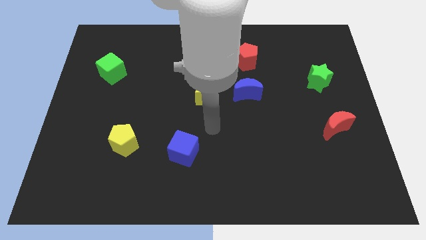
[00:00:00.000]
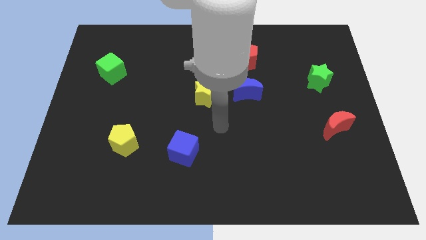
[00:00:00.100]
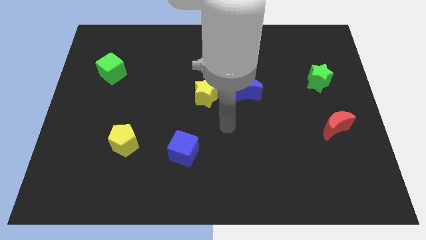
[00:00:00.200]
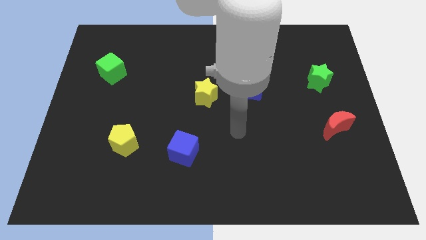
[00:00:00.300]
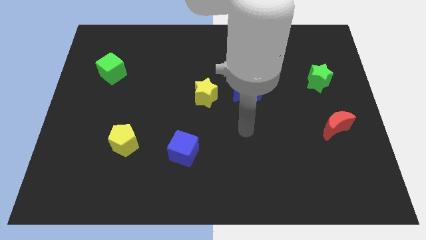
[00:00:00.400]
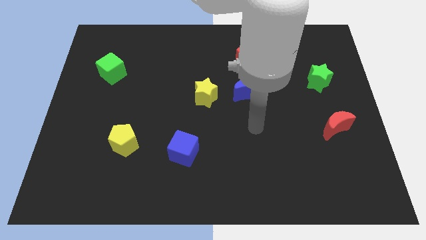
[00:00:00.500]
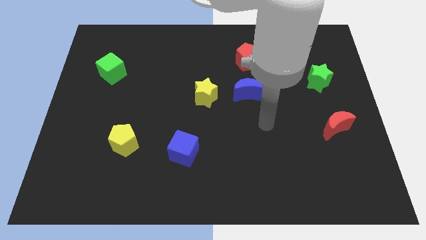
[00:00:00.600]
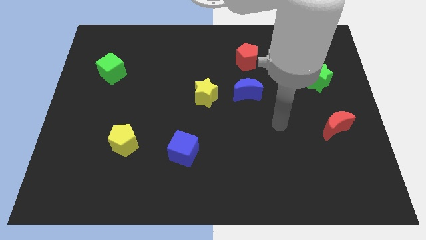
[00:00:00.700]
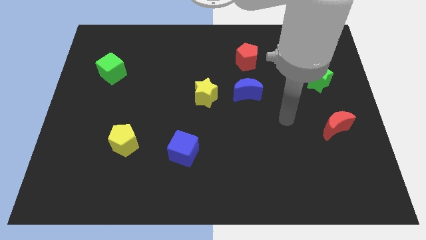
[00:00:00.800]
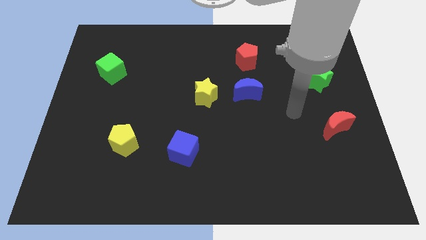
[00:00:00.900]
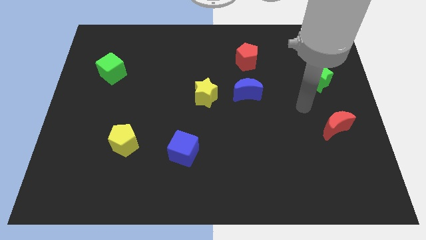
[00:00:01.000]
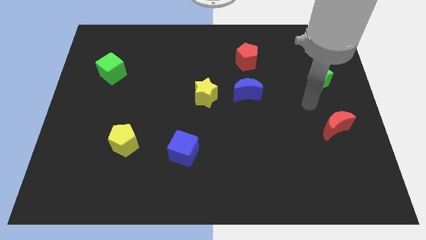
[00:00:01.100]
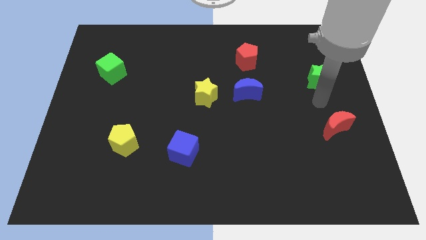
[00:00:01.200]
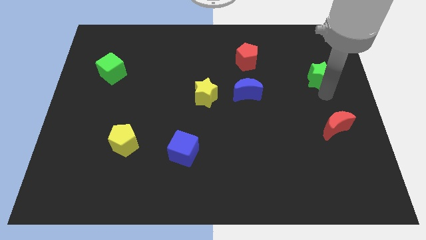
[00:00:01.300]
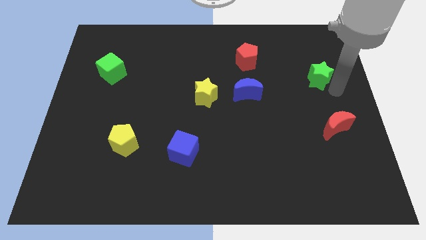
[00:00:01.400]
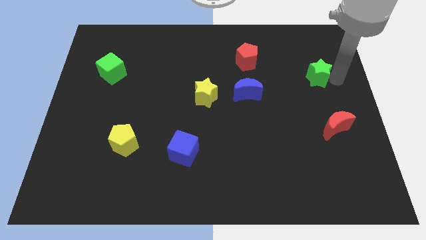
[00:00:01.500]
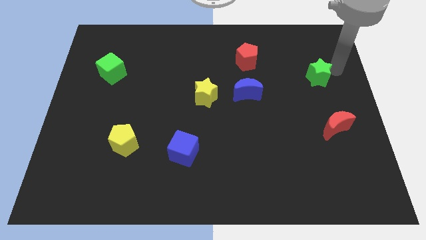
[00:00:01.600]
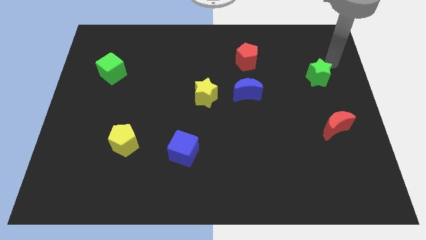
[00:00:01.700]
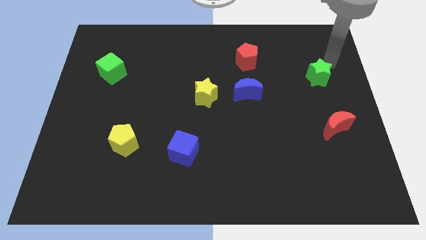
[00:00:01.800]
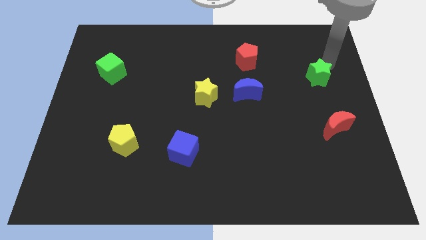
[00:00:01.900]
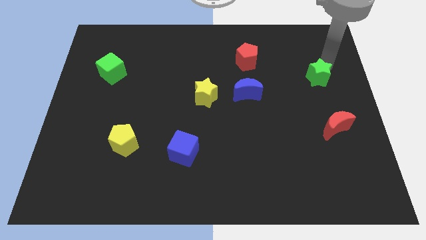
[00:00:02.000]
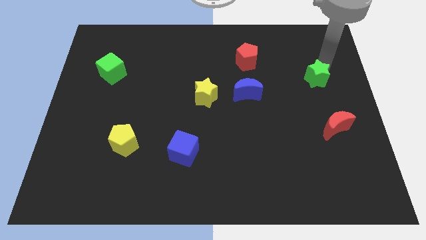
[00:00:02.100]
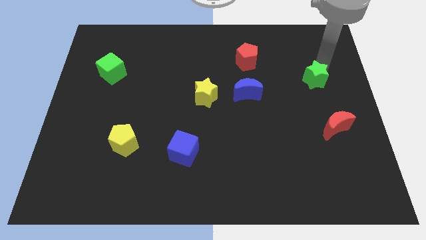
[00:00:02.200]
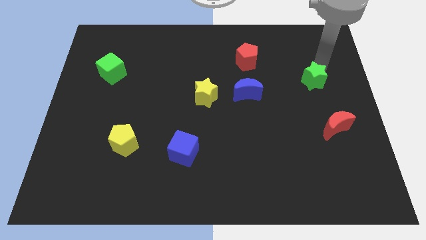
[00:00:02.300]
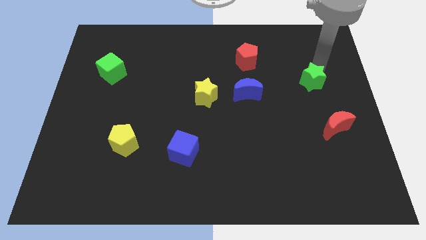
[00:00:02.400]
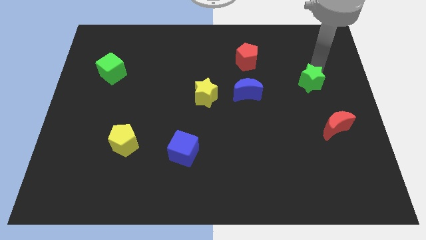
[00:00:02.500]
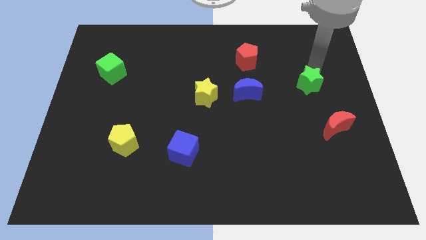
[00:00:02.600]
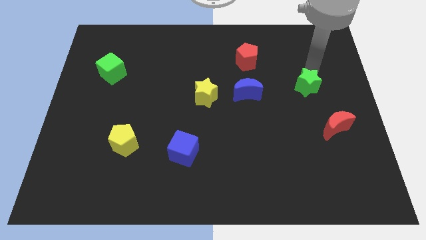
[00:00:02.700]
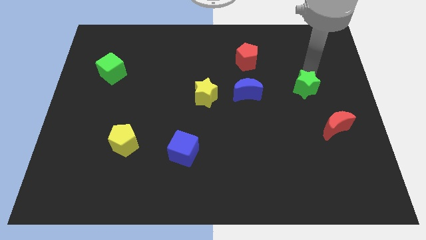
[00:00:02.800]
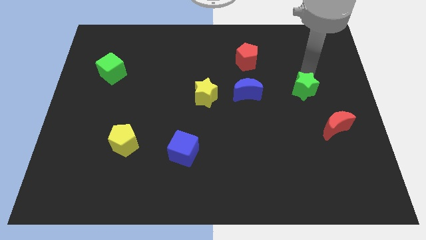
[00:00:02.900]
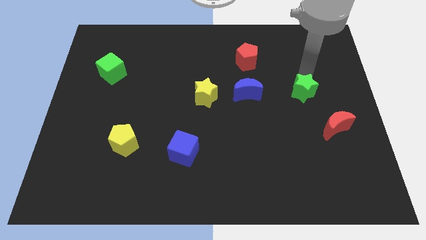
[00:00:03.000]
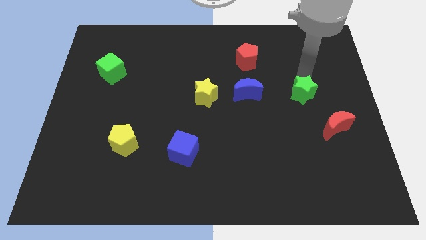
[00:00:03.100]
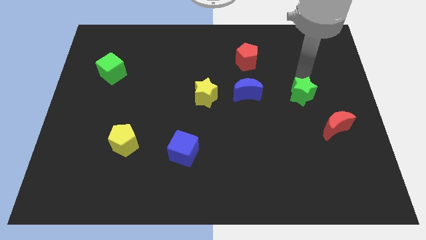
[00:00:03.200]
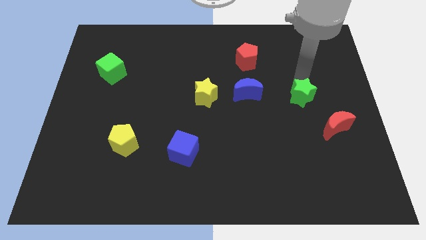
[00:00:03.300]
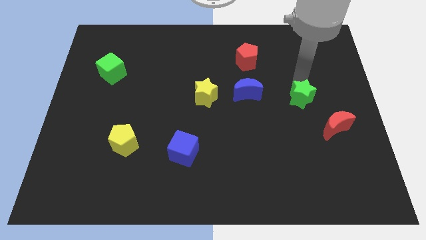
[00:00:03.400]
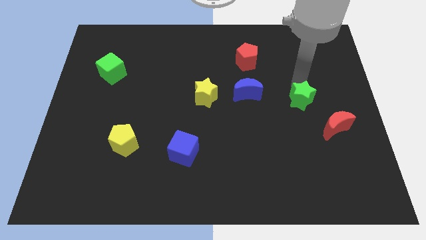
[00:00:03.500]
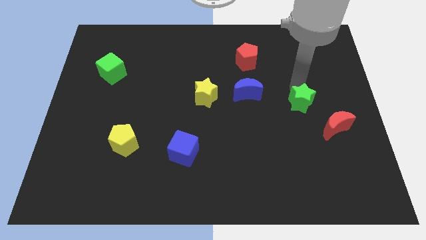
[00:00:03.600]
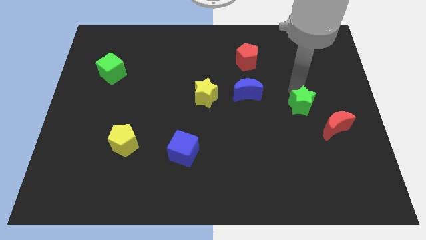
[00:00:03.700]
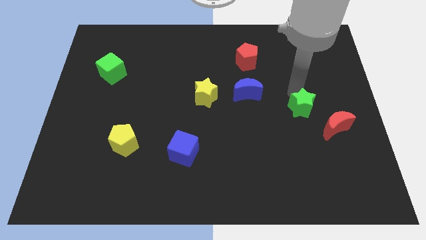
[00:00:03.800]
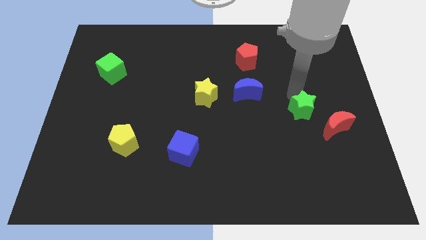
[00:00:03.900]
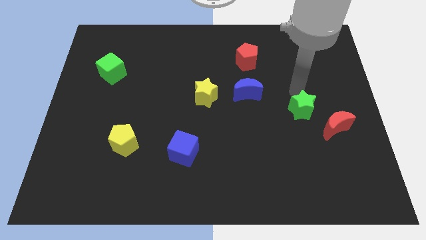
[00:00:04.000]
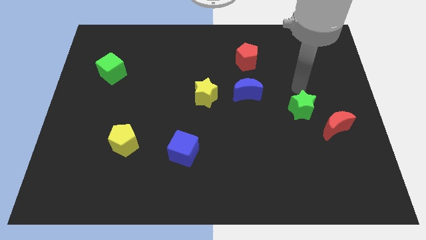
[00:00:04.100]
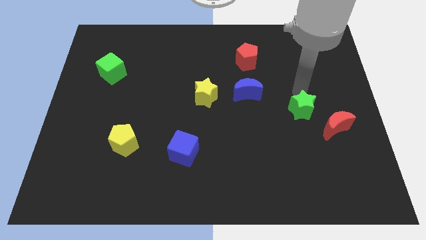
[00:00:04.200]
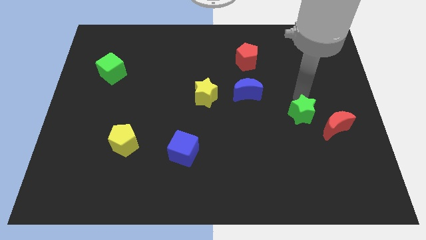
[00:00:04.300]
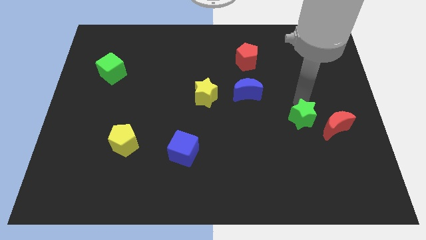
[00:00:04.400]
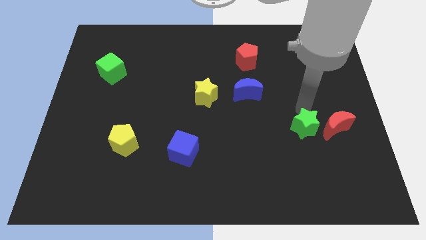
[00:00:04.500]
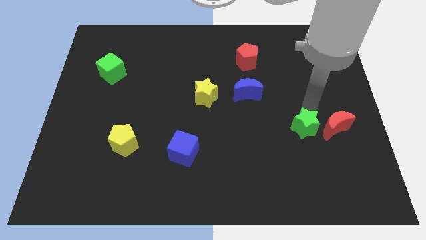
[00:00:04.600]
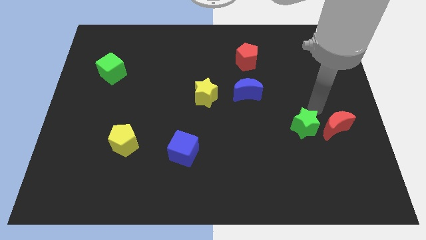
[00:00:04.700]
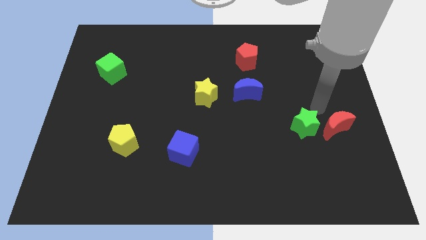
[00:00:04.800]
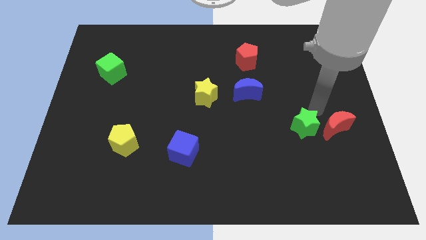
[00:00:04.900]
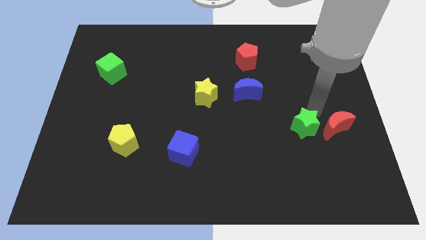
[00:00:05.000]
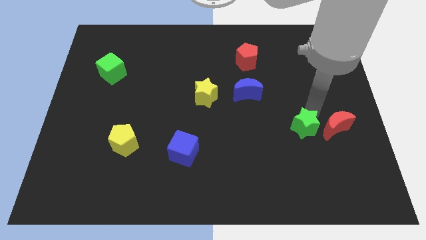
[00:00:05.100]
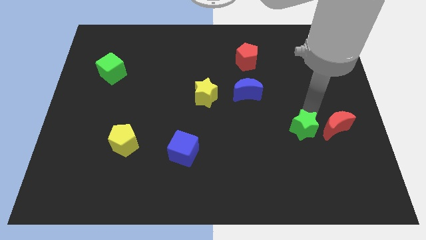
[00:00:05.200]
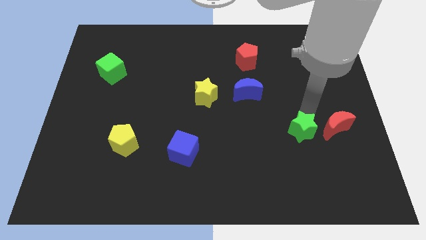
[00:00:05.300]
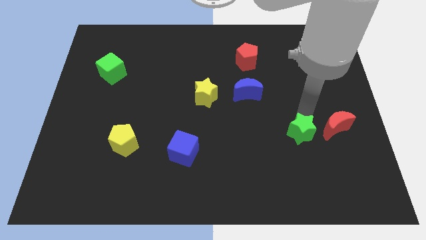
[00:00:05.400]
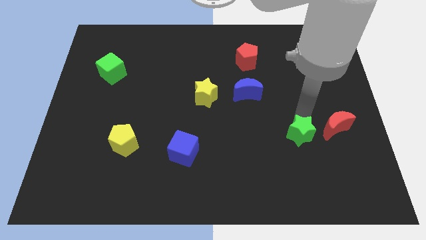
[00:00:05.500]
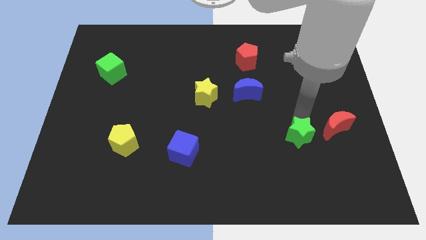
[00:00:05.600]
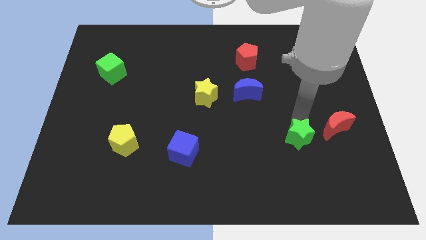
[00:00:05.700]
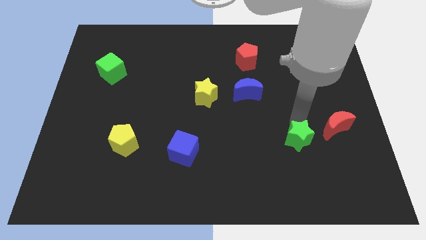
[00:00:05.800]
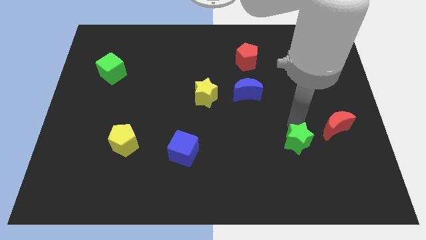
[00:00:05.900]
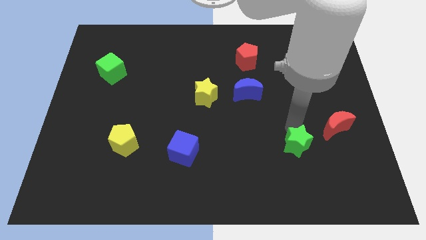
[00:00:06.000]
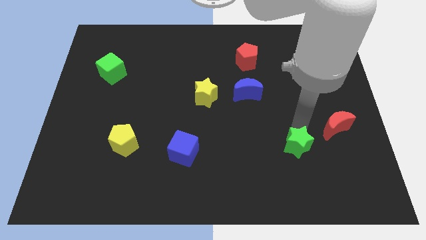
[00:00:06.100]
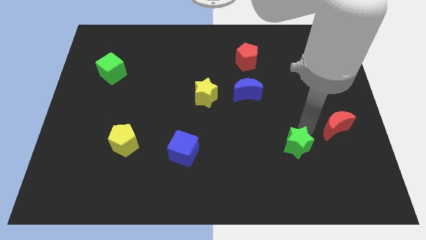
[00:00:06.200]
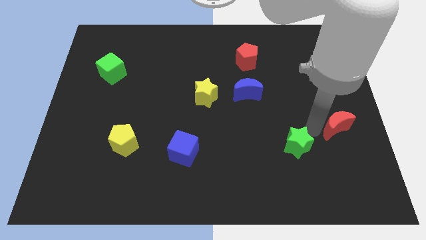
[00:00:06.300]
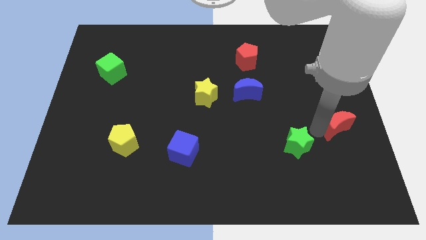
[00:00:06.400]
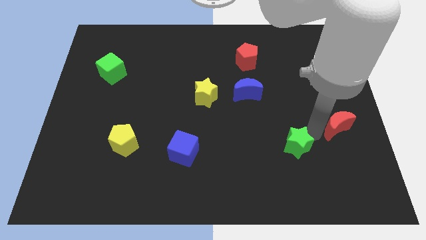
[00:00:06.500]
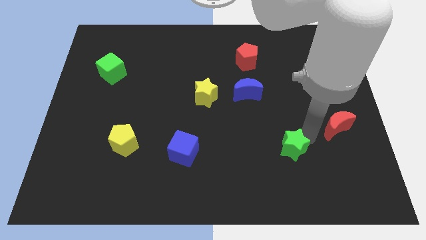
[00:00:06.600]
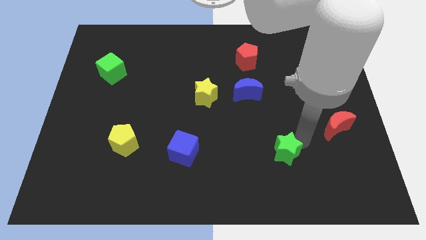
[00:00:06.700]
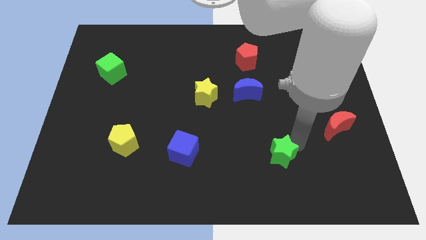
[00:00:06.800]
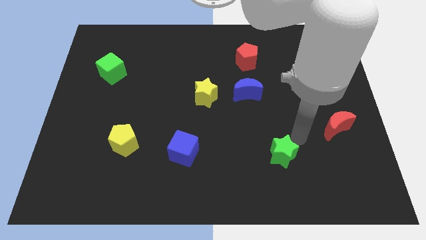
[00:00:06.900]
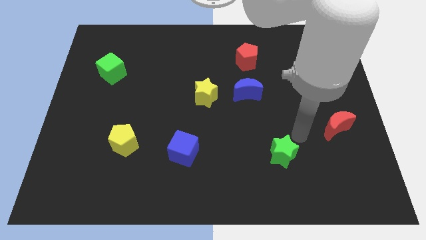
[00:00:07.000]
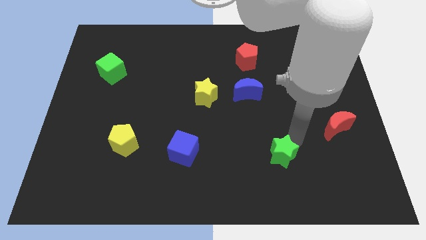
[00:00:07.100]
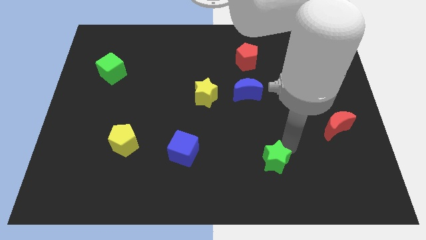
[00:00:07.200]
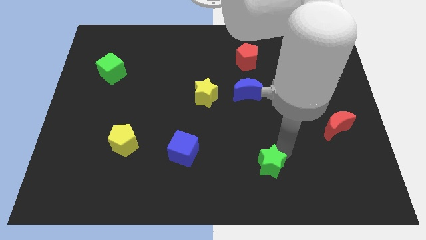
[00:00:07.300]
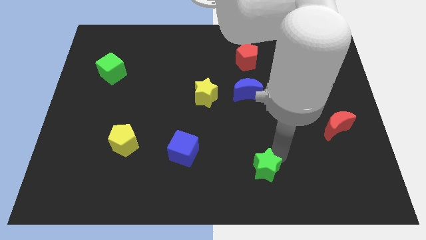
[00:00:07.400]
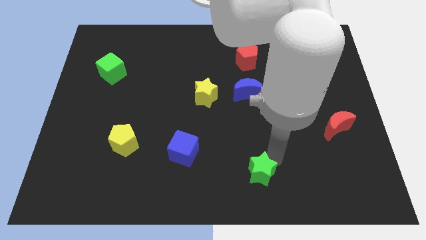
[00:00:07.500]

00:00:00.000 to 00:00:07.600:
slide the green star to the bottom
